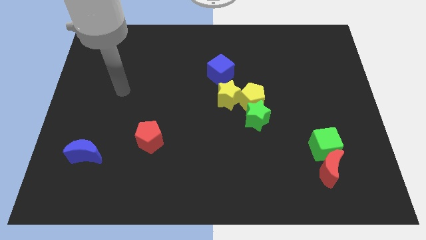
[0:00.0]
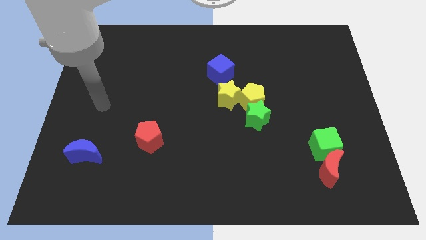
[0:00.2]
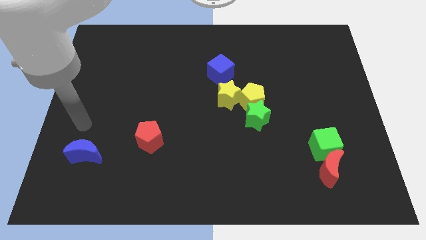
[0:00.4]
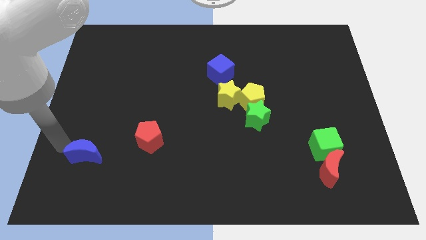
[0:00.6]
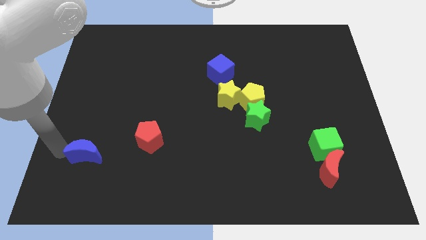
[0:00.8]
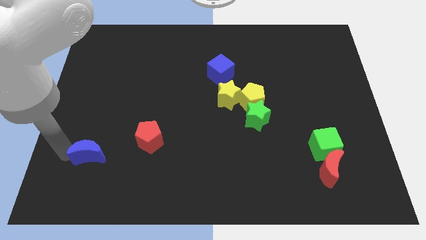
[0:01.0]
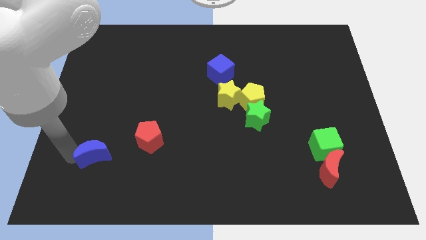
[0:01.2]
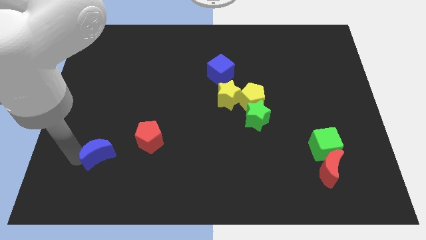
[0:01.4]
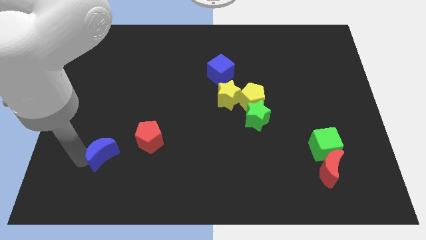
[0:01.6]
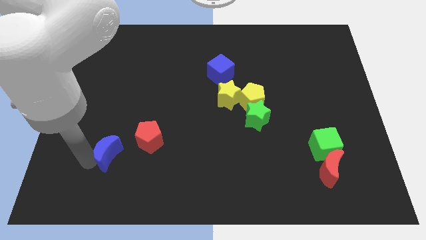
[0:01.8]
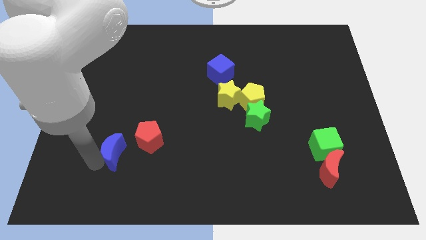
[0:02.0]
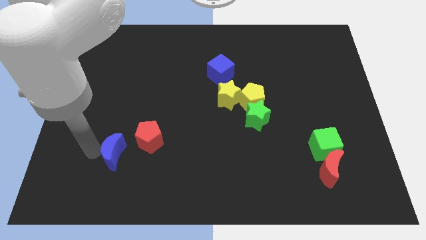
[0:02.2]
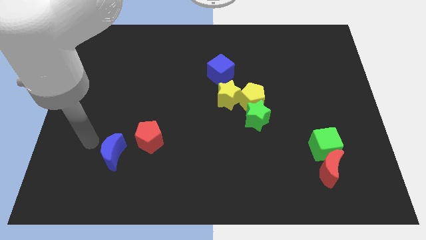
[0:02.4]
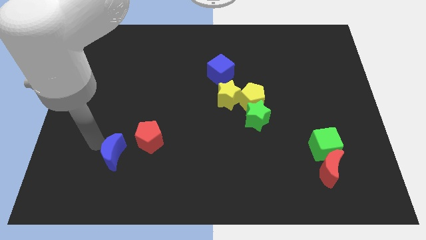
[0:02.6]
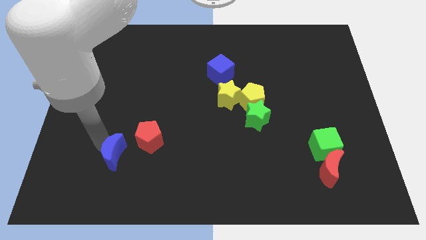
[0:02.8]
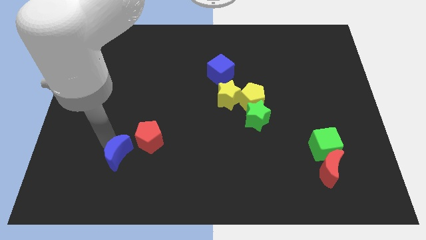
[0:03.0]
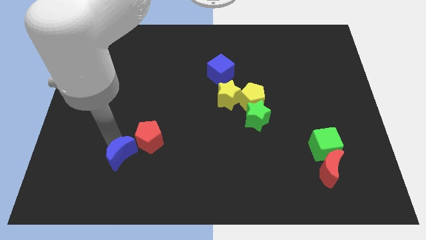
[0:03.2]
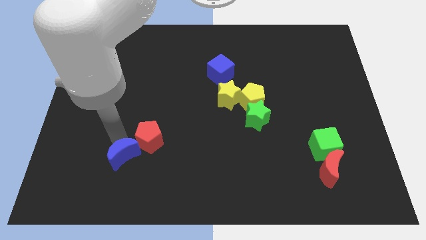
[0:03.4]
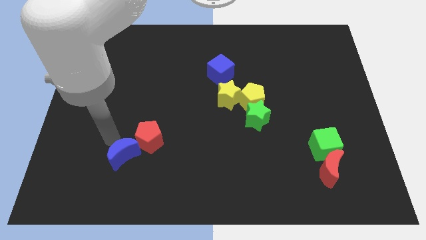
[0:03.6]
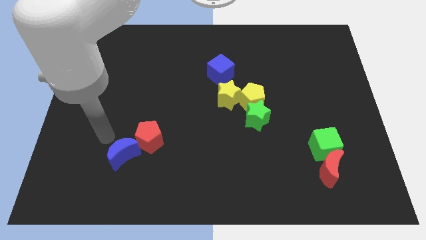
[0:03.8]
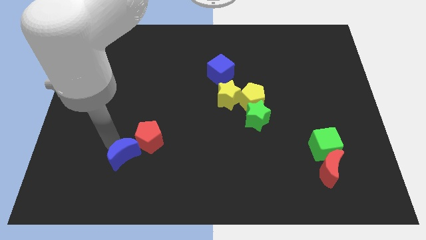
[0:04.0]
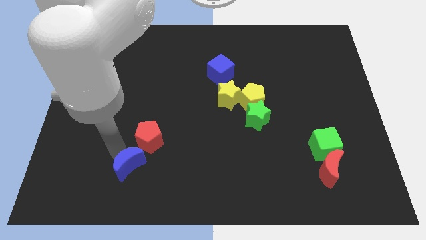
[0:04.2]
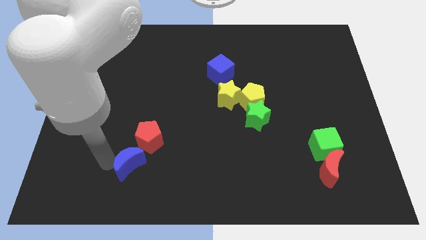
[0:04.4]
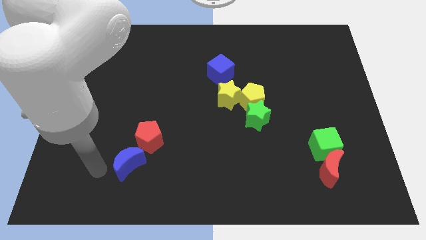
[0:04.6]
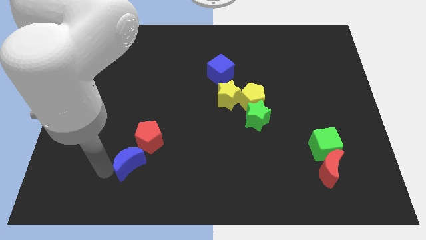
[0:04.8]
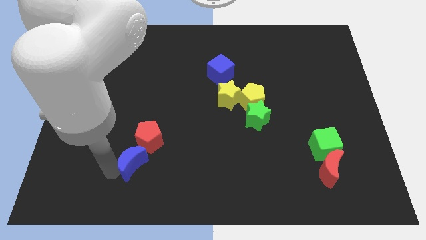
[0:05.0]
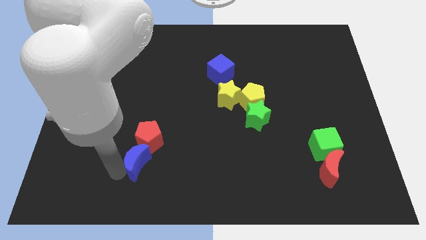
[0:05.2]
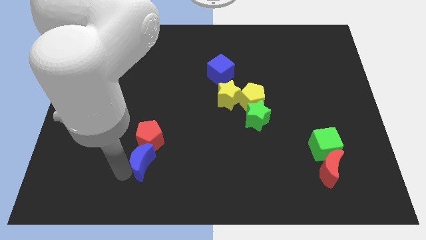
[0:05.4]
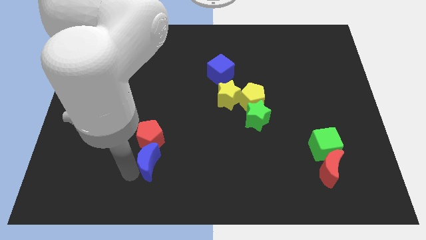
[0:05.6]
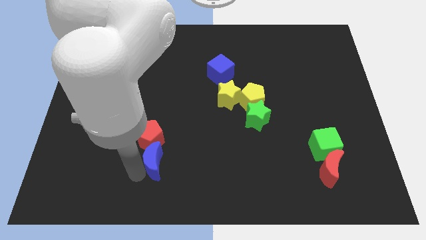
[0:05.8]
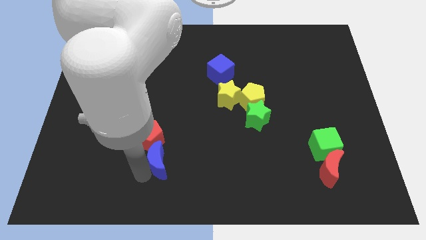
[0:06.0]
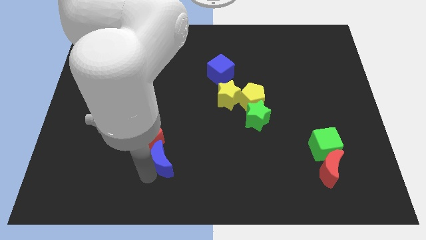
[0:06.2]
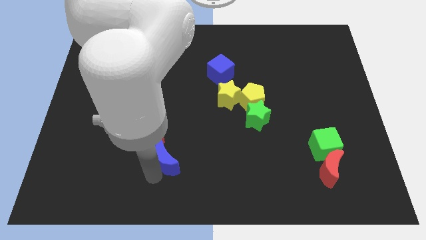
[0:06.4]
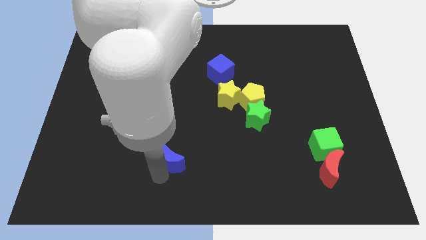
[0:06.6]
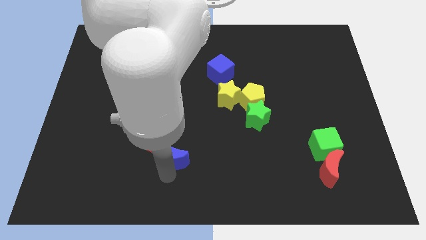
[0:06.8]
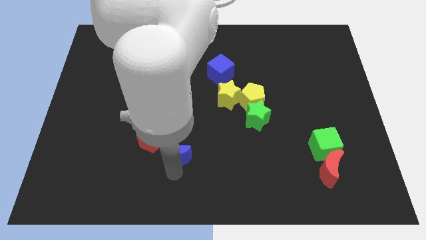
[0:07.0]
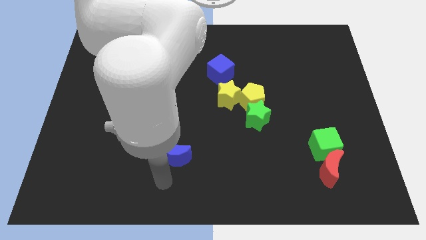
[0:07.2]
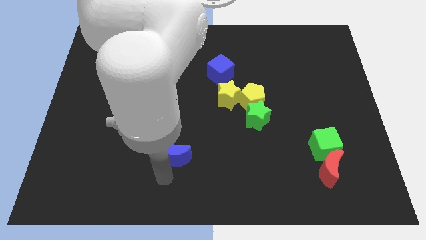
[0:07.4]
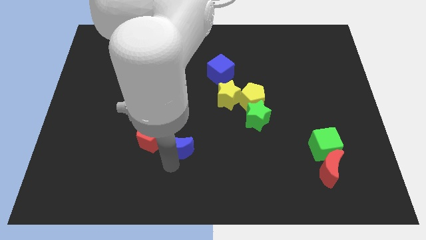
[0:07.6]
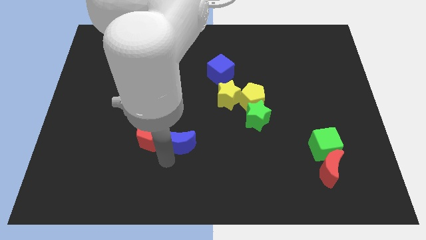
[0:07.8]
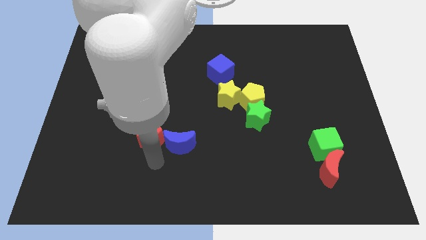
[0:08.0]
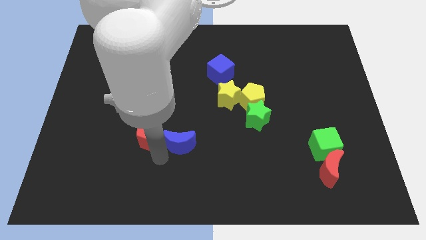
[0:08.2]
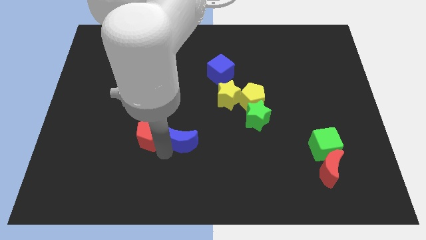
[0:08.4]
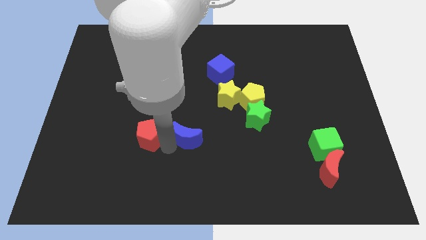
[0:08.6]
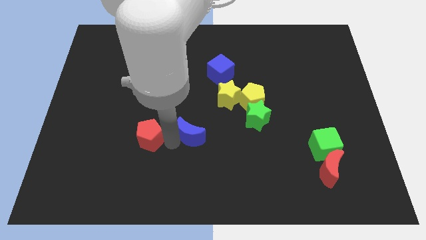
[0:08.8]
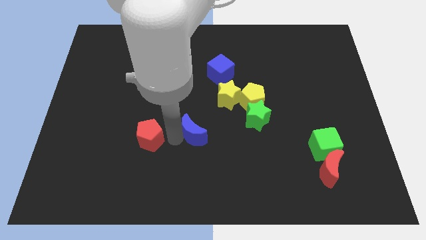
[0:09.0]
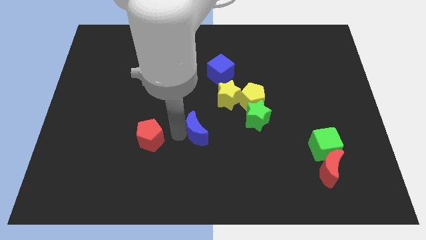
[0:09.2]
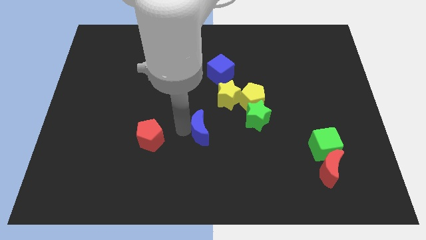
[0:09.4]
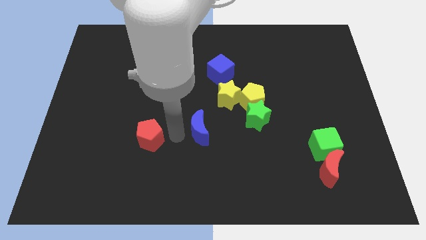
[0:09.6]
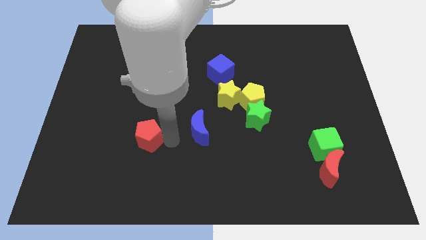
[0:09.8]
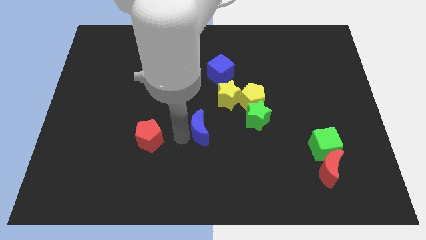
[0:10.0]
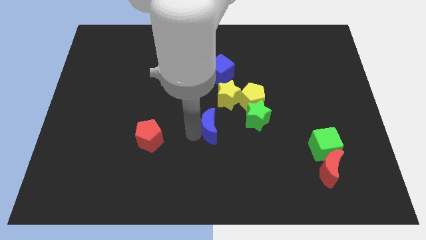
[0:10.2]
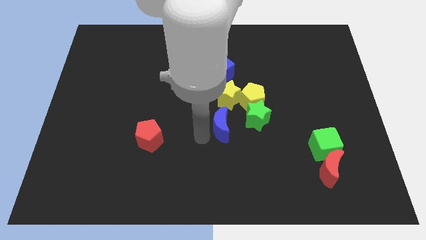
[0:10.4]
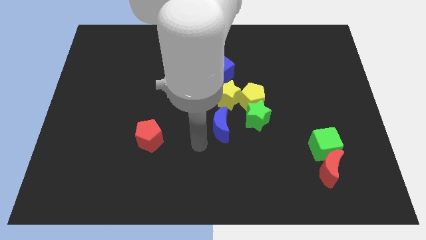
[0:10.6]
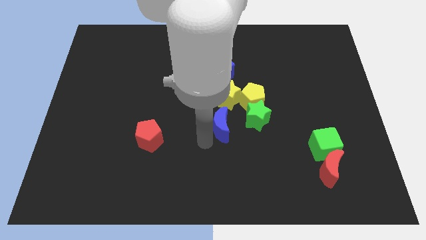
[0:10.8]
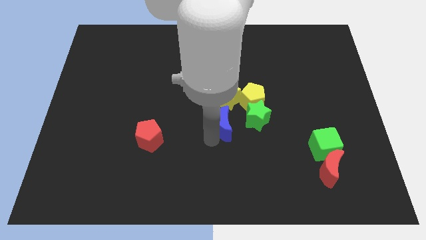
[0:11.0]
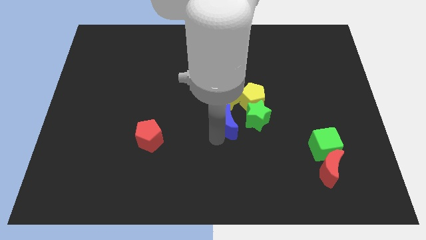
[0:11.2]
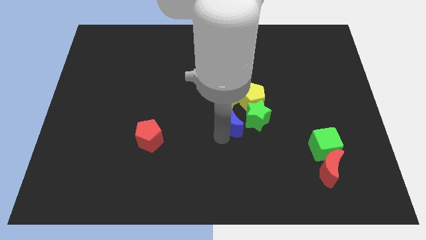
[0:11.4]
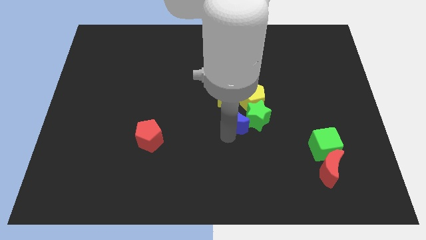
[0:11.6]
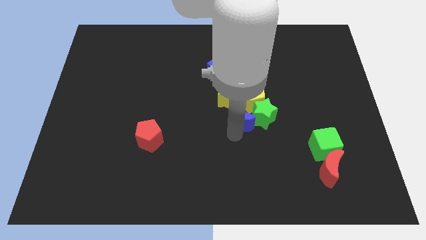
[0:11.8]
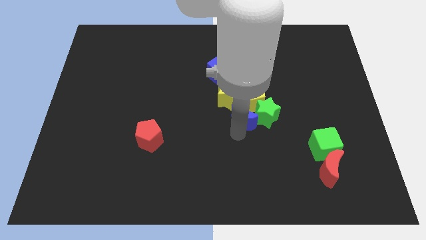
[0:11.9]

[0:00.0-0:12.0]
put the blue moon towards the yellow pentagon

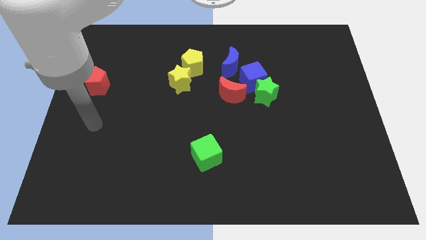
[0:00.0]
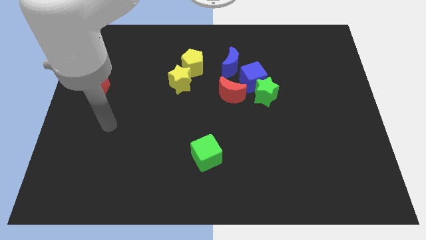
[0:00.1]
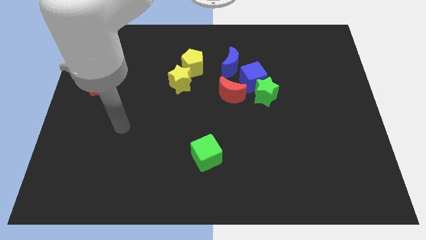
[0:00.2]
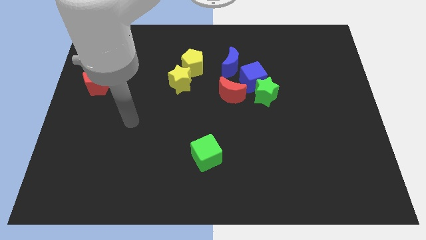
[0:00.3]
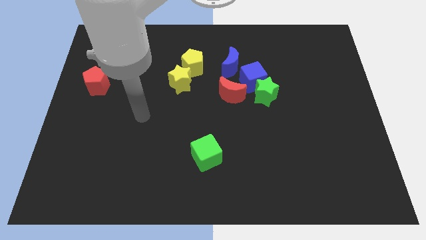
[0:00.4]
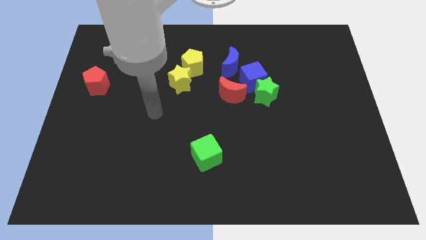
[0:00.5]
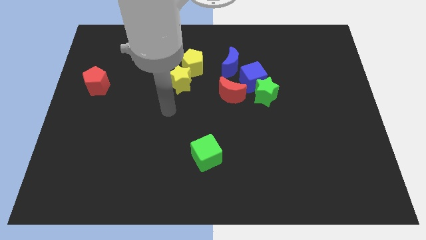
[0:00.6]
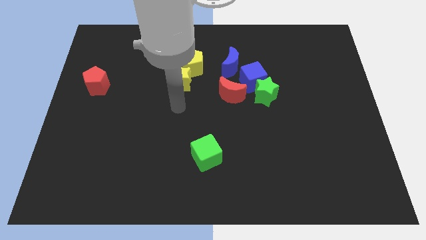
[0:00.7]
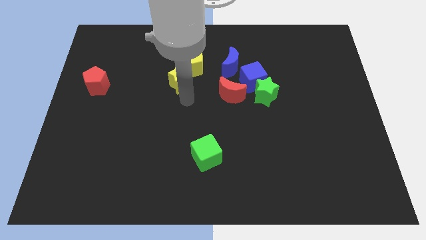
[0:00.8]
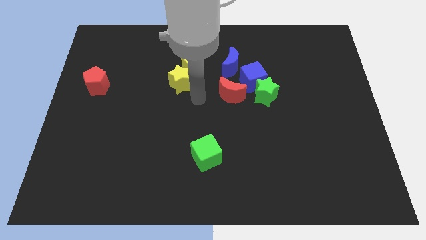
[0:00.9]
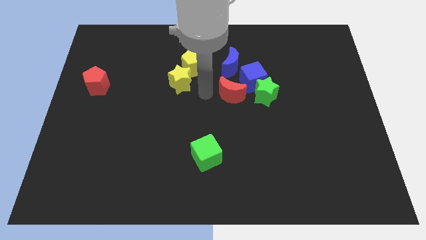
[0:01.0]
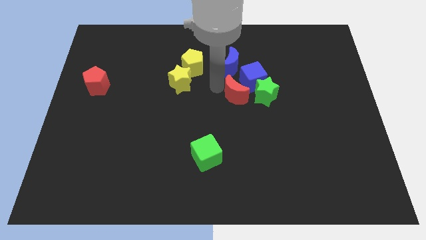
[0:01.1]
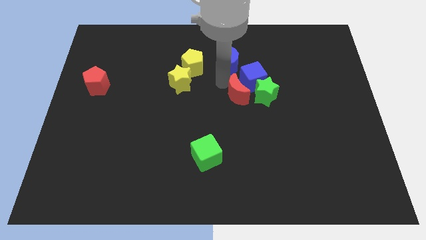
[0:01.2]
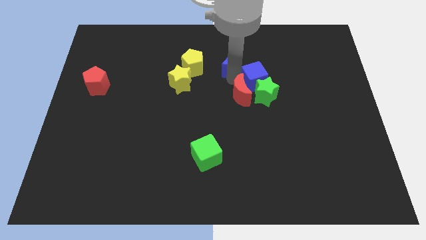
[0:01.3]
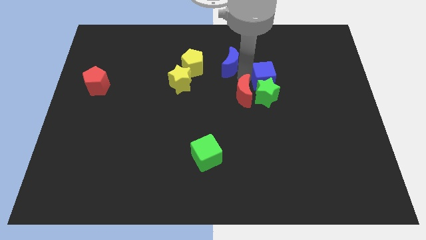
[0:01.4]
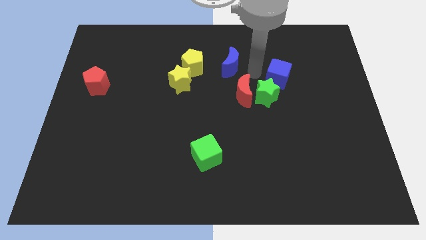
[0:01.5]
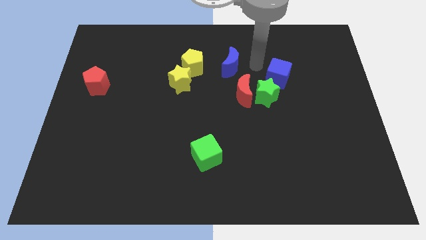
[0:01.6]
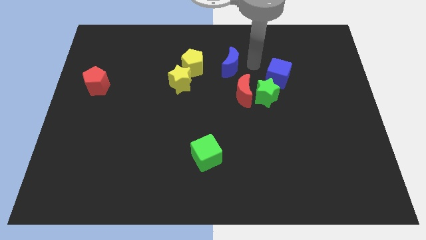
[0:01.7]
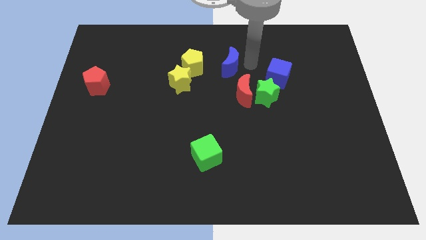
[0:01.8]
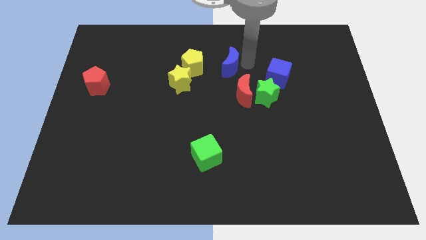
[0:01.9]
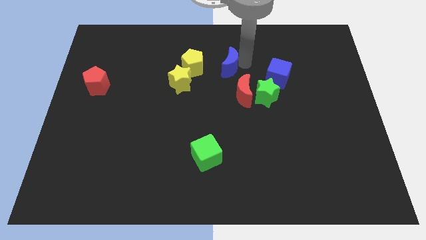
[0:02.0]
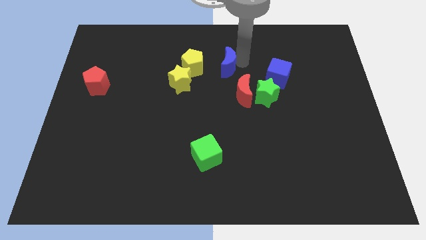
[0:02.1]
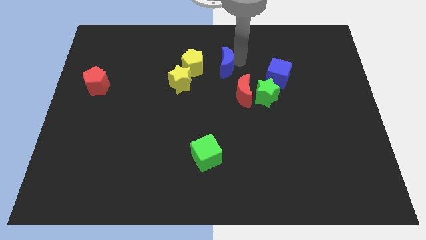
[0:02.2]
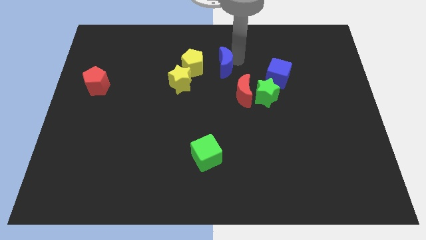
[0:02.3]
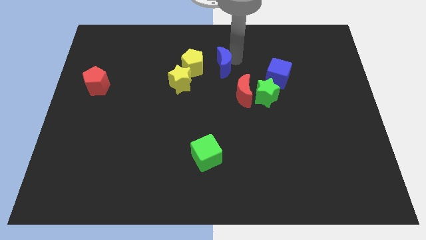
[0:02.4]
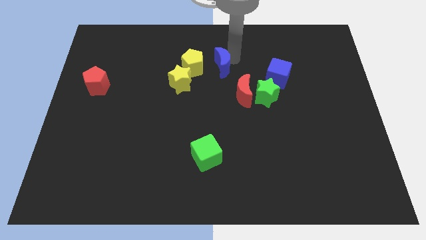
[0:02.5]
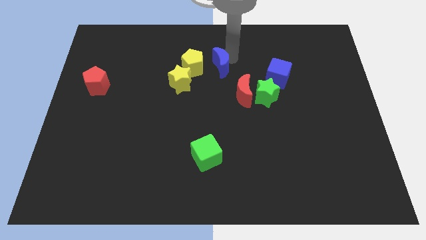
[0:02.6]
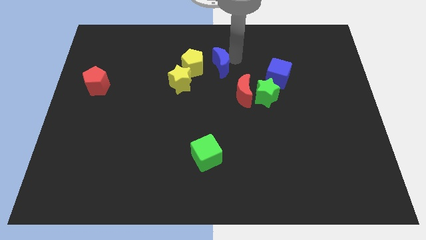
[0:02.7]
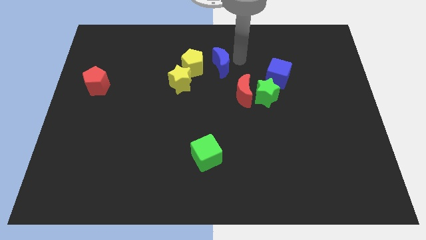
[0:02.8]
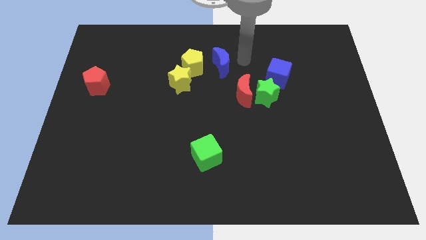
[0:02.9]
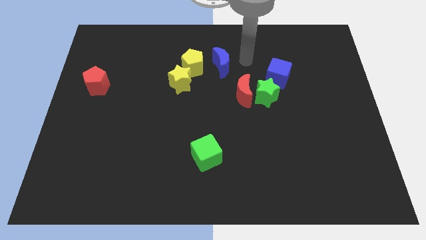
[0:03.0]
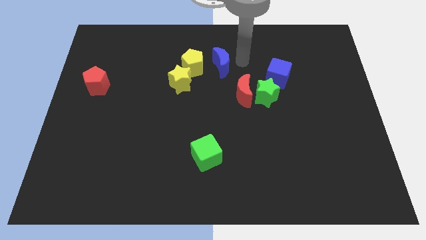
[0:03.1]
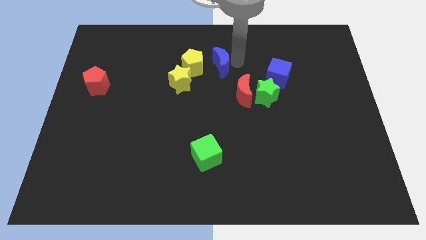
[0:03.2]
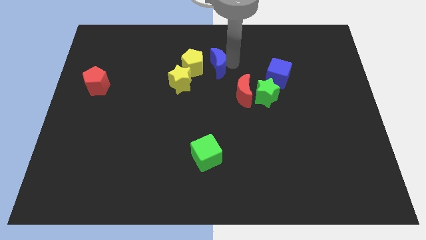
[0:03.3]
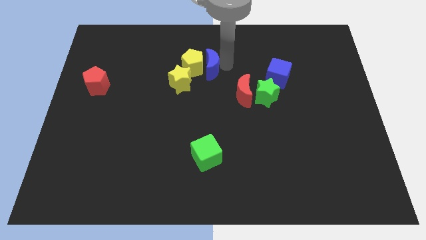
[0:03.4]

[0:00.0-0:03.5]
move the blue moon towards the yellow pentagon
